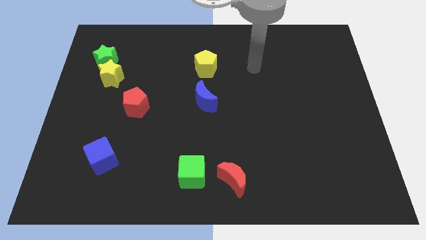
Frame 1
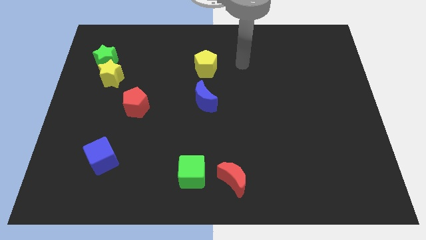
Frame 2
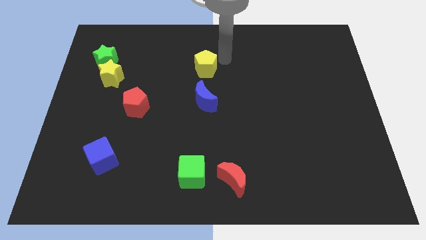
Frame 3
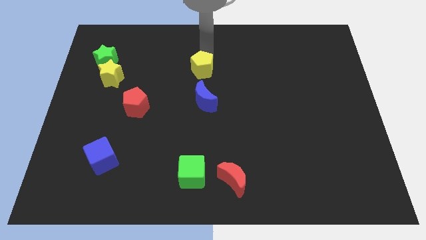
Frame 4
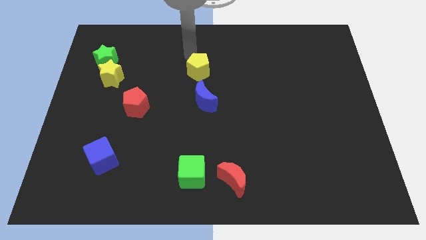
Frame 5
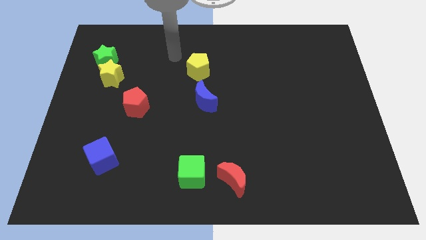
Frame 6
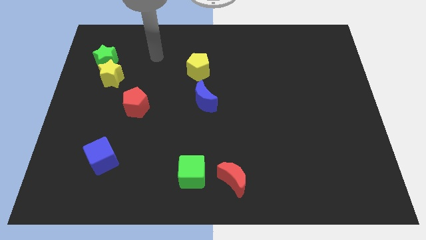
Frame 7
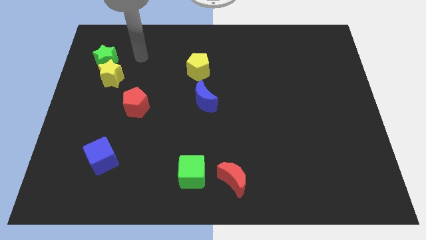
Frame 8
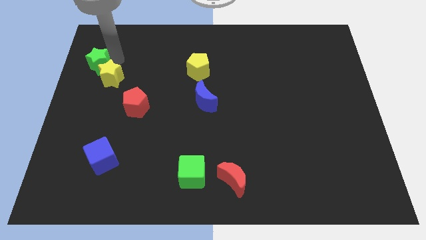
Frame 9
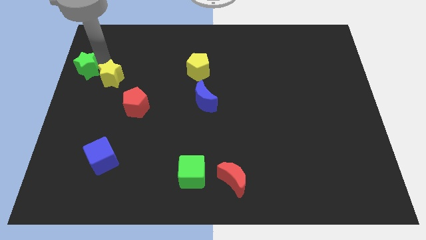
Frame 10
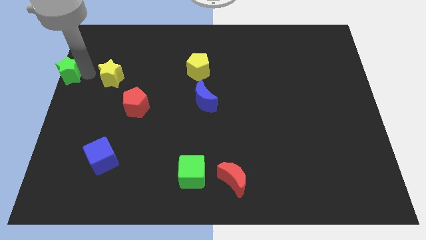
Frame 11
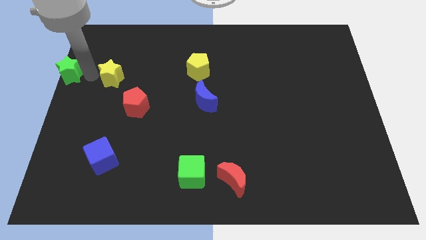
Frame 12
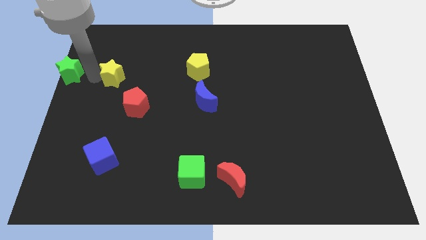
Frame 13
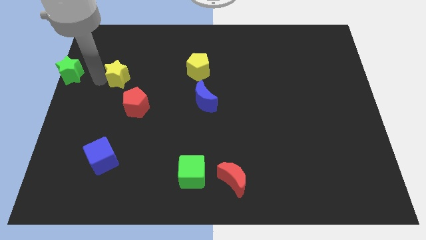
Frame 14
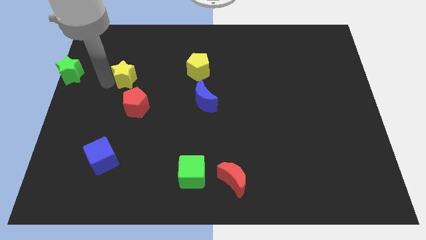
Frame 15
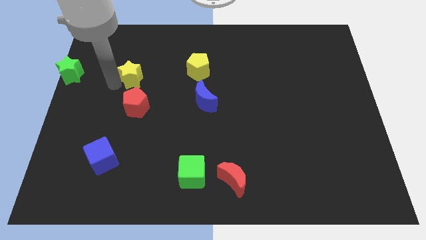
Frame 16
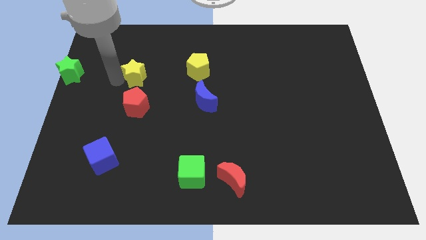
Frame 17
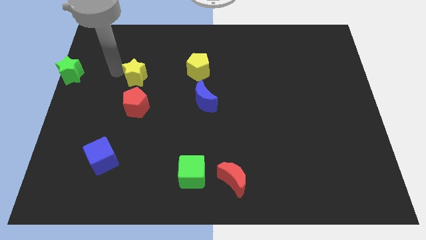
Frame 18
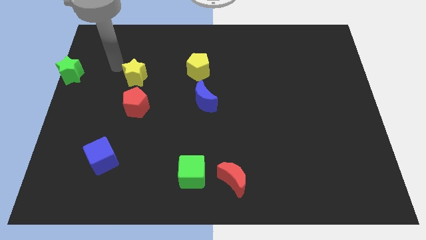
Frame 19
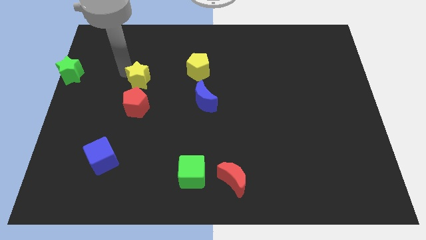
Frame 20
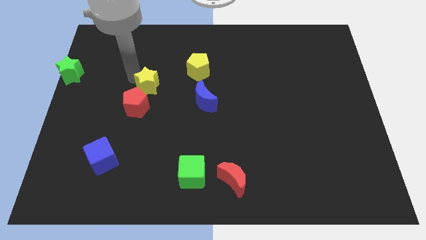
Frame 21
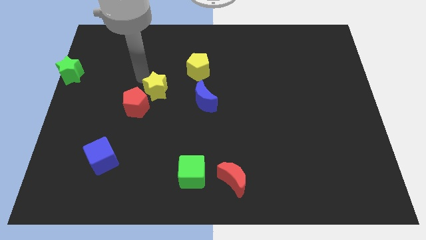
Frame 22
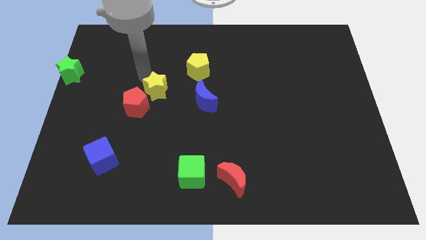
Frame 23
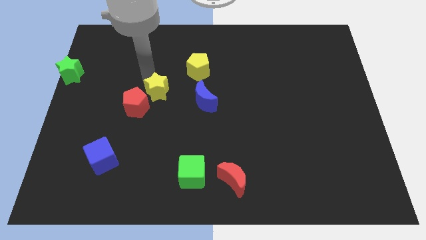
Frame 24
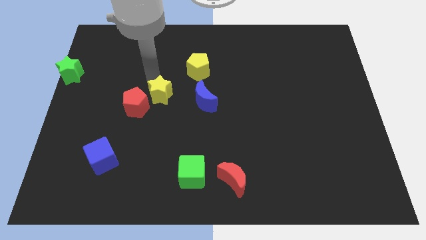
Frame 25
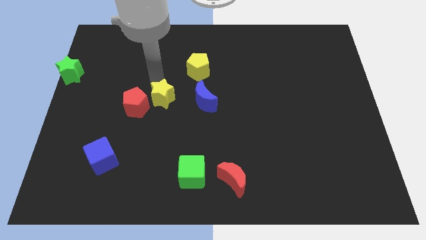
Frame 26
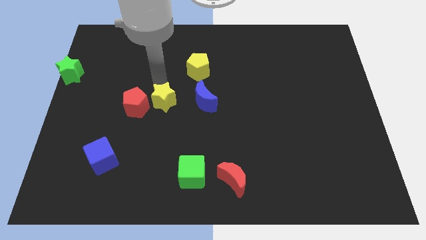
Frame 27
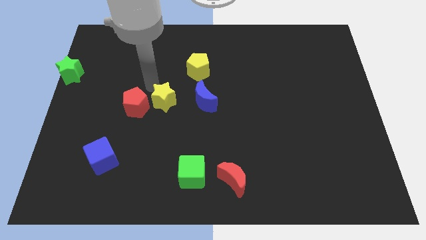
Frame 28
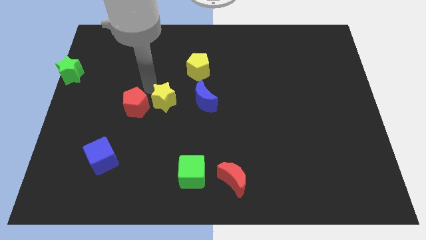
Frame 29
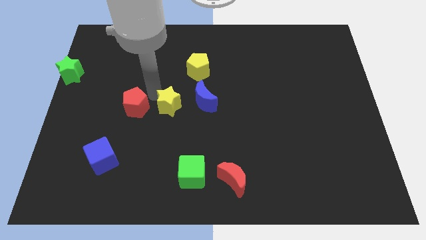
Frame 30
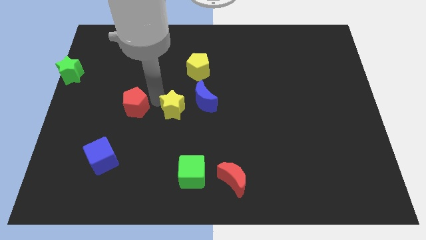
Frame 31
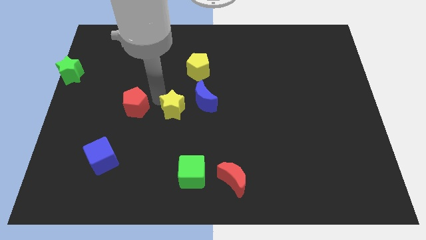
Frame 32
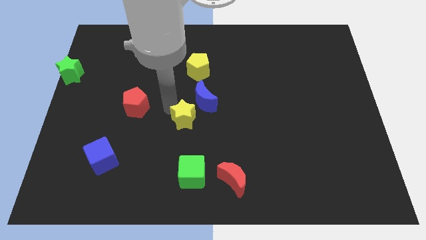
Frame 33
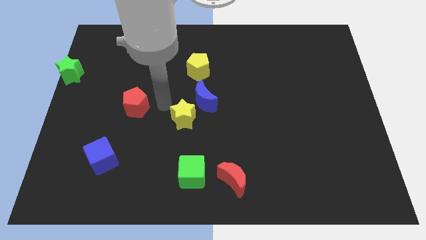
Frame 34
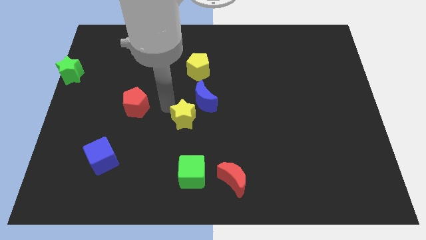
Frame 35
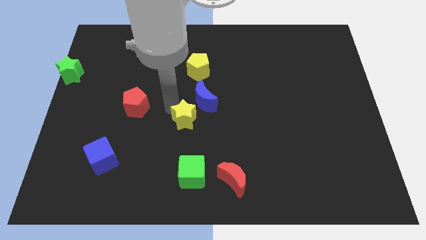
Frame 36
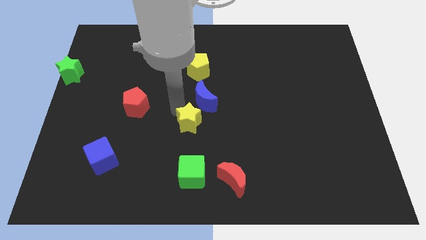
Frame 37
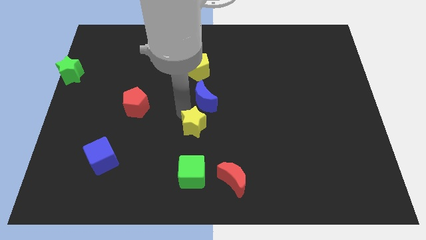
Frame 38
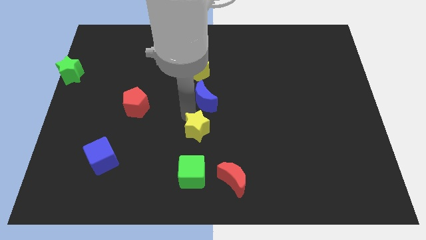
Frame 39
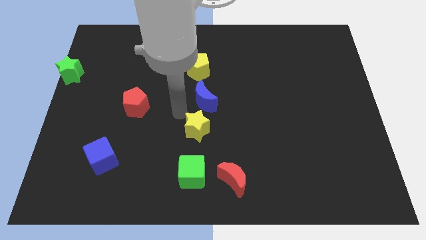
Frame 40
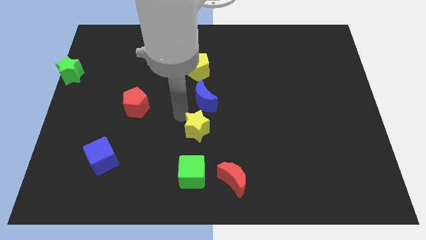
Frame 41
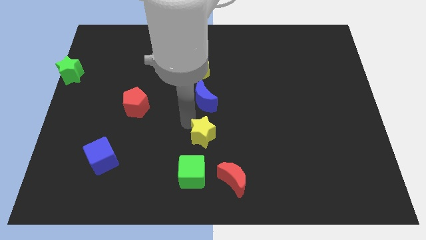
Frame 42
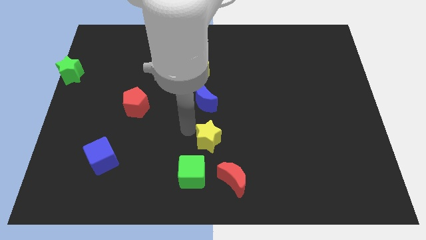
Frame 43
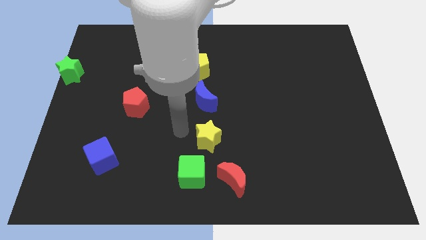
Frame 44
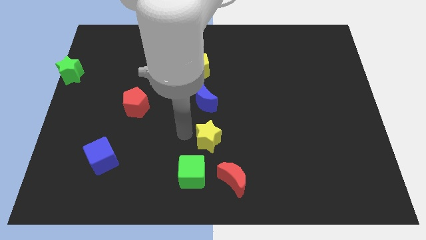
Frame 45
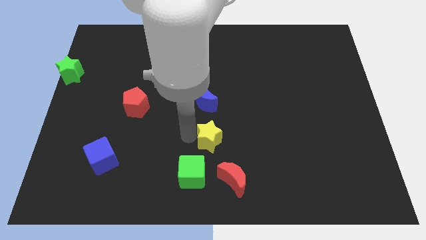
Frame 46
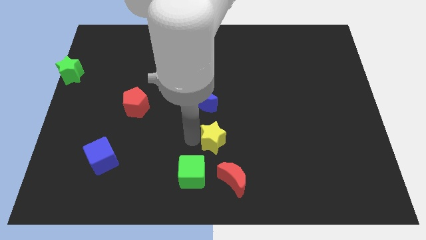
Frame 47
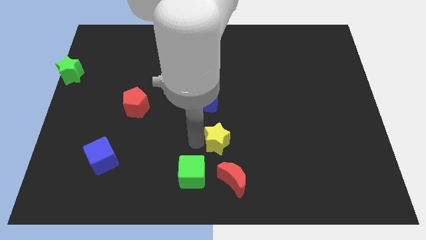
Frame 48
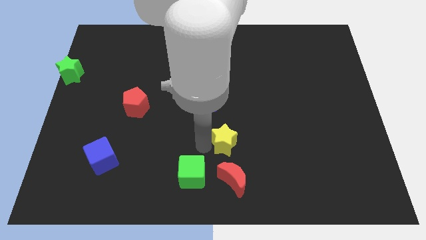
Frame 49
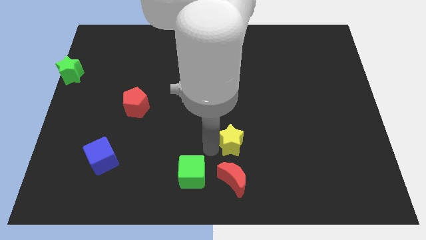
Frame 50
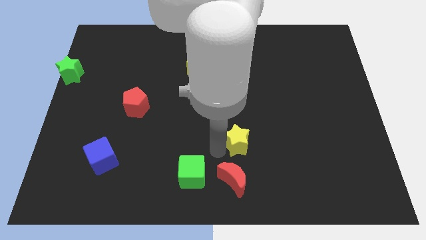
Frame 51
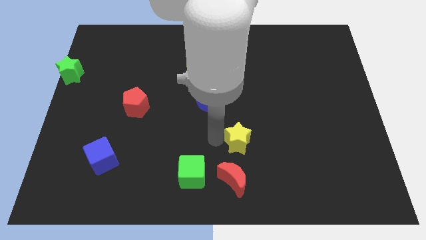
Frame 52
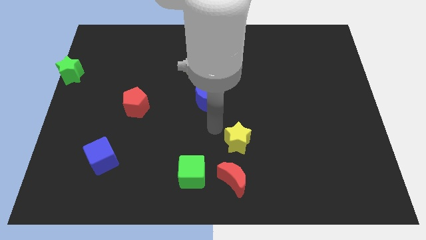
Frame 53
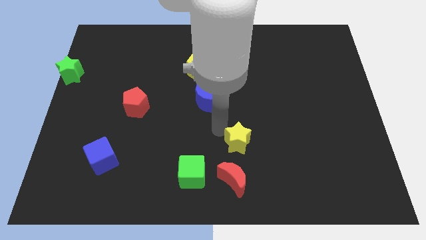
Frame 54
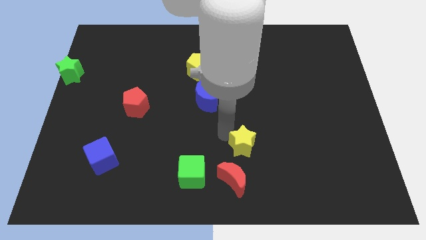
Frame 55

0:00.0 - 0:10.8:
put the yellow star diagonally up and to the right of the red moon

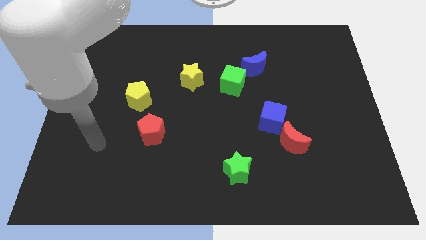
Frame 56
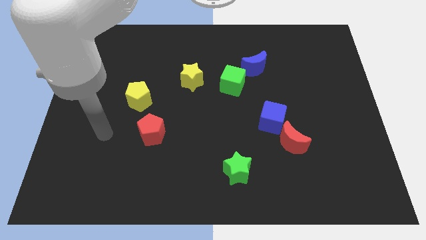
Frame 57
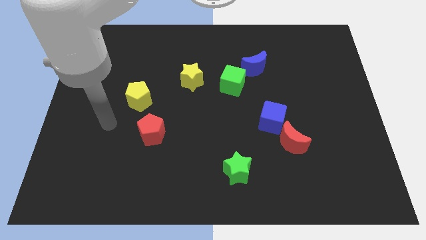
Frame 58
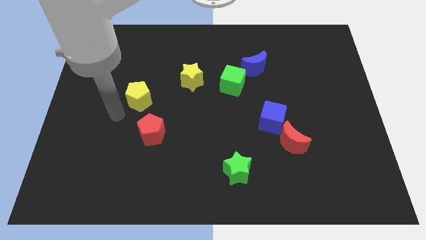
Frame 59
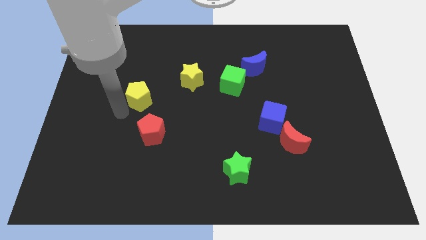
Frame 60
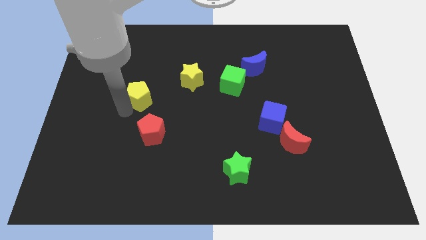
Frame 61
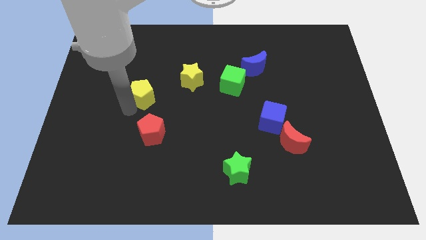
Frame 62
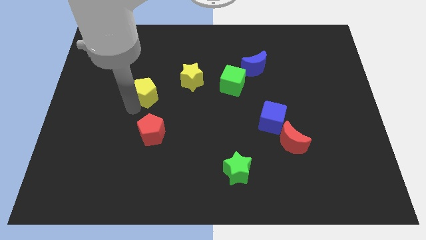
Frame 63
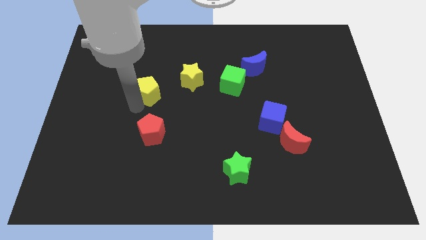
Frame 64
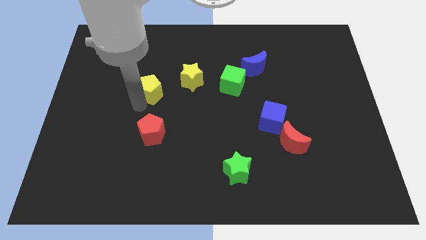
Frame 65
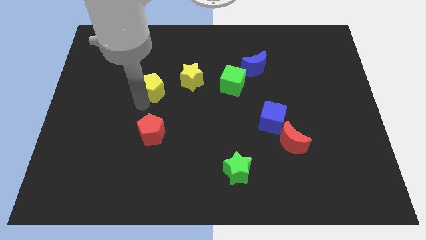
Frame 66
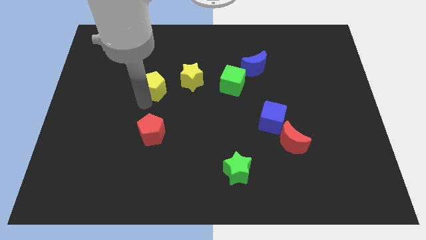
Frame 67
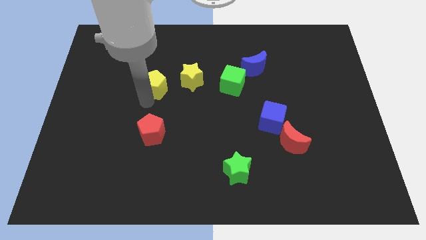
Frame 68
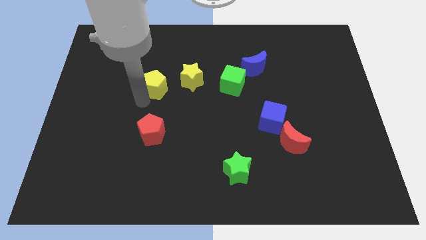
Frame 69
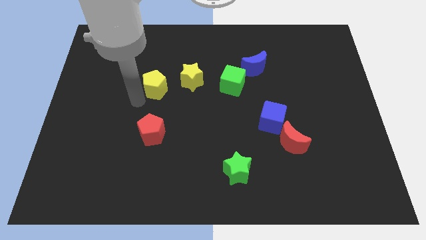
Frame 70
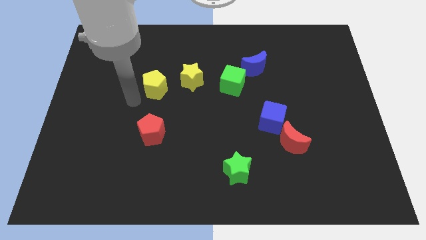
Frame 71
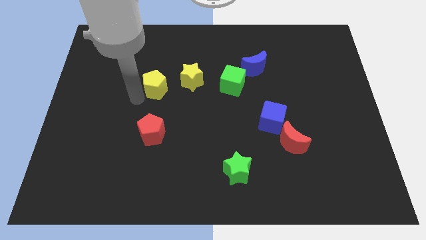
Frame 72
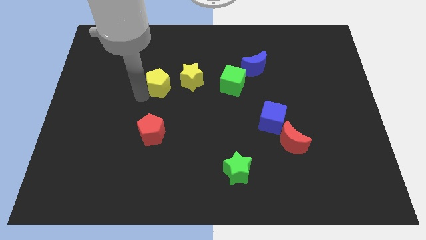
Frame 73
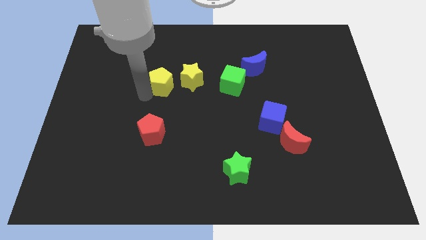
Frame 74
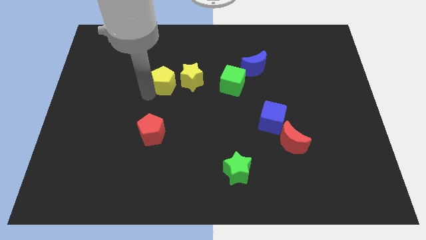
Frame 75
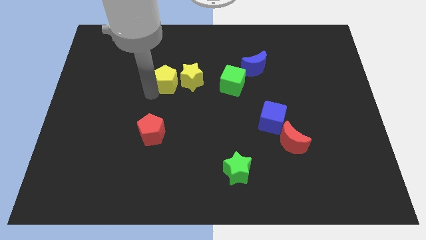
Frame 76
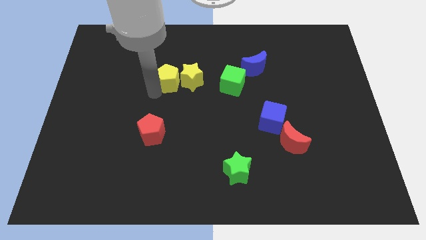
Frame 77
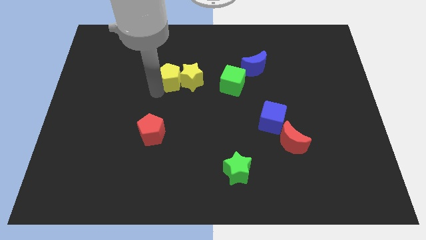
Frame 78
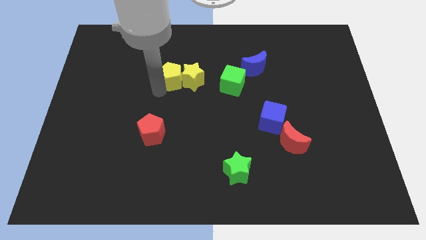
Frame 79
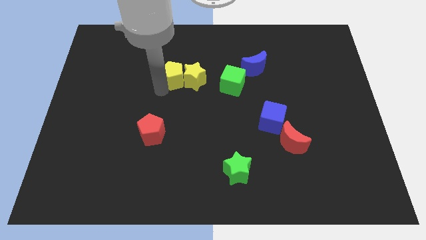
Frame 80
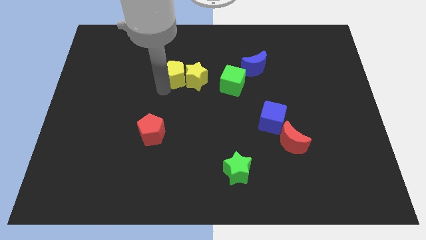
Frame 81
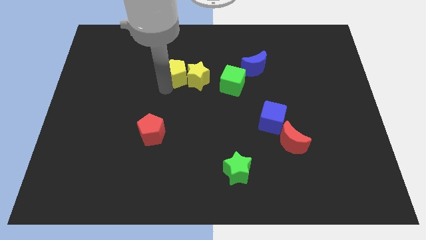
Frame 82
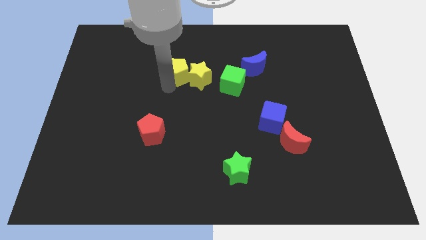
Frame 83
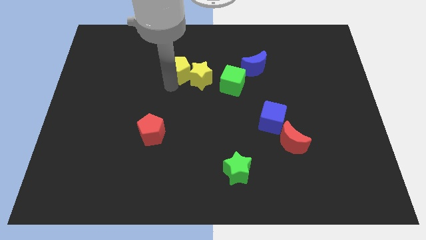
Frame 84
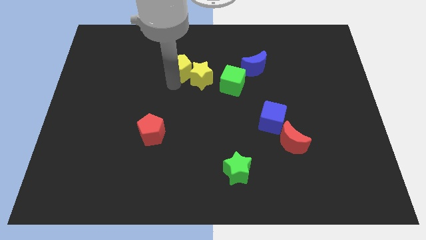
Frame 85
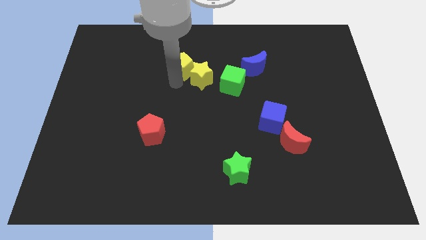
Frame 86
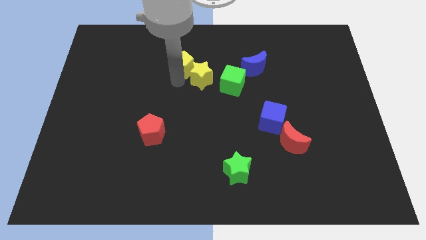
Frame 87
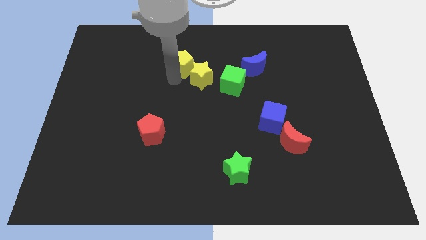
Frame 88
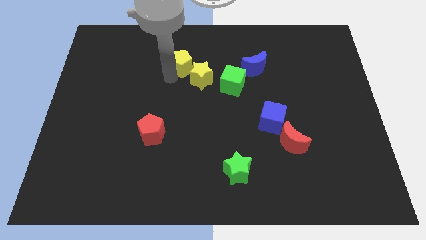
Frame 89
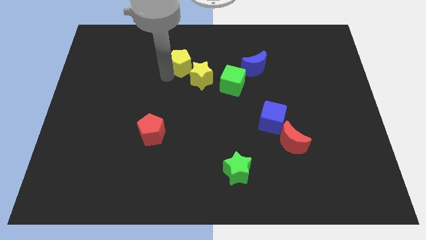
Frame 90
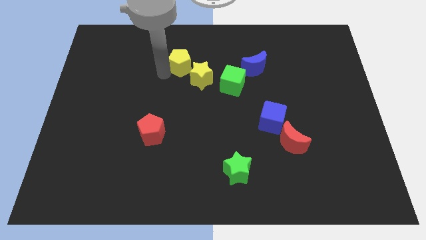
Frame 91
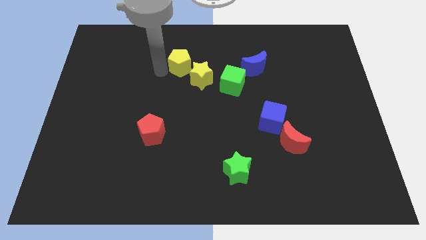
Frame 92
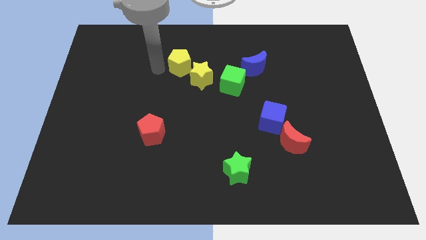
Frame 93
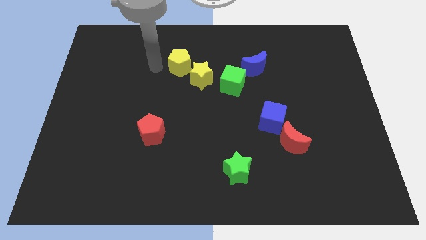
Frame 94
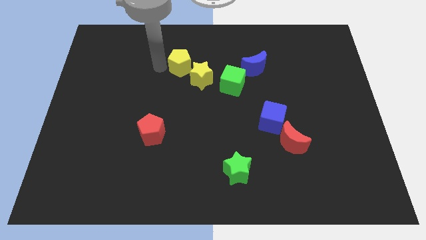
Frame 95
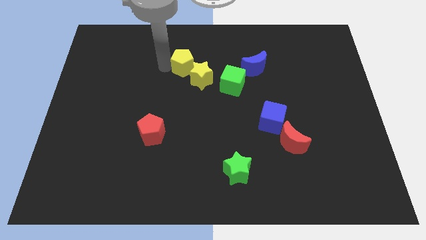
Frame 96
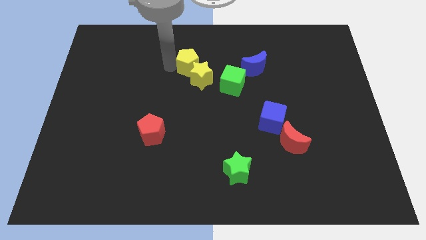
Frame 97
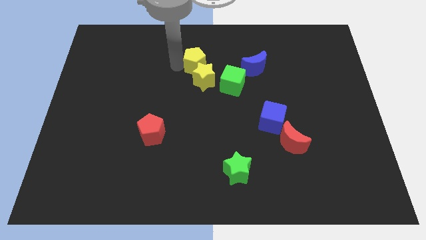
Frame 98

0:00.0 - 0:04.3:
move the yellow pentagon left of the blue moon
